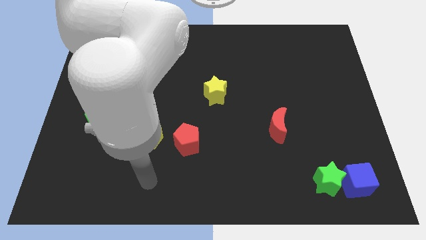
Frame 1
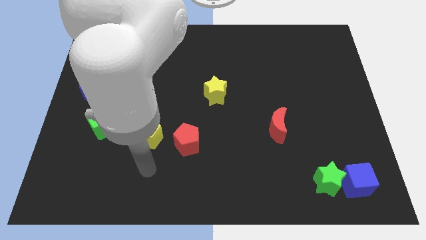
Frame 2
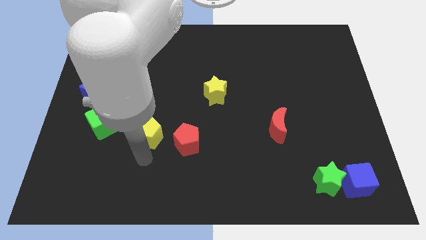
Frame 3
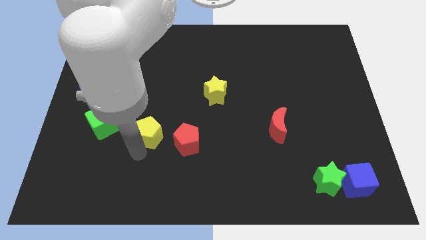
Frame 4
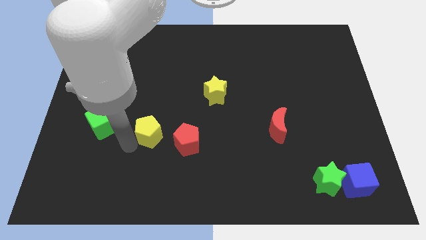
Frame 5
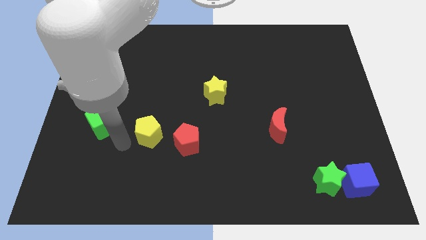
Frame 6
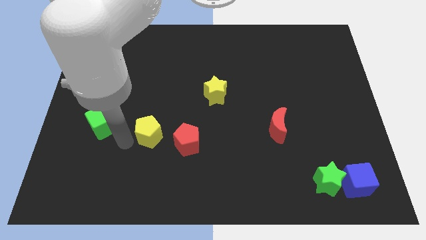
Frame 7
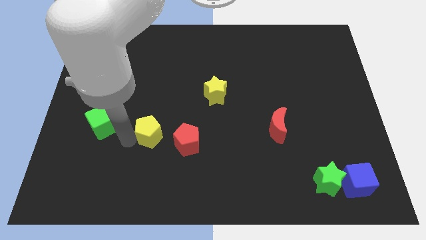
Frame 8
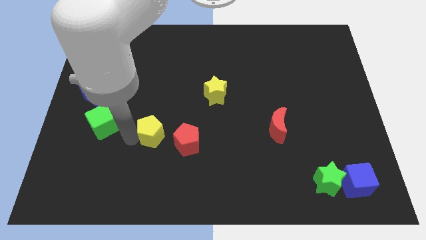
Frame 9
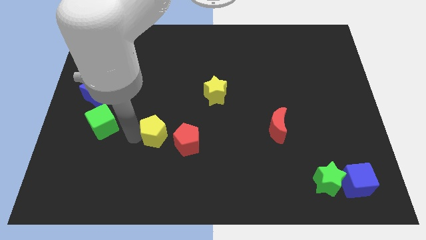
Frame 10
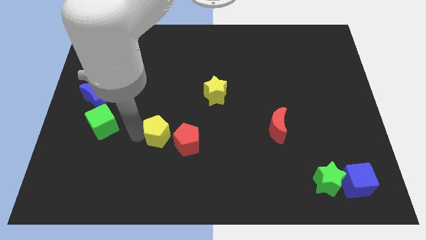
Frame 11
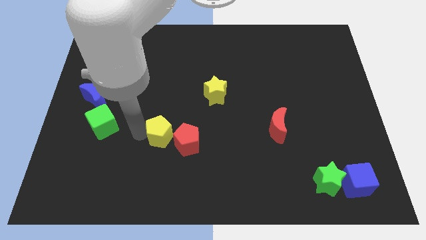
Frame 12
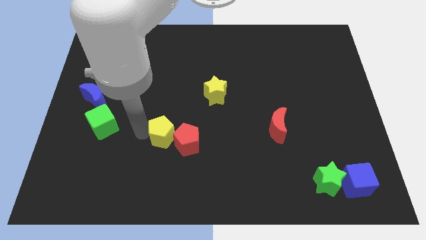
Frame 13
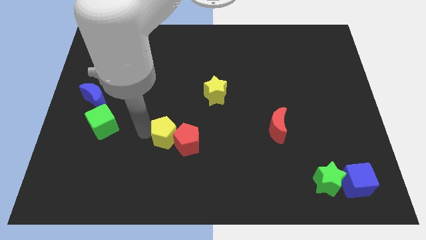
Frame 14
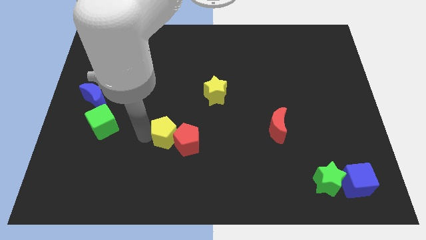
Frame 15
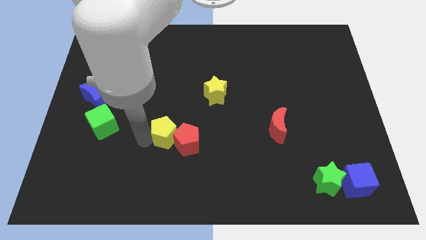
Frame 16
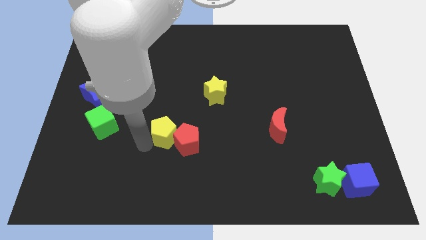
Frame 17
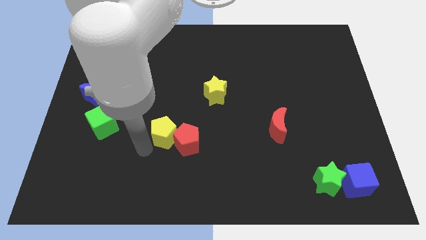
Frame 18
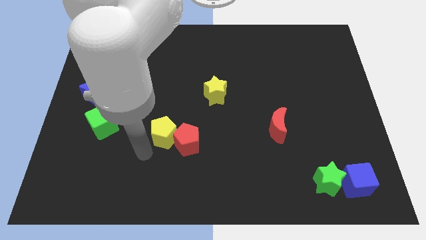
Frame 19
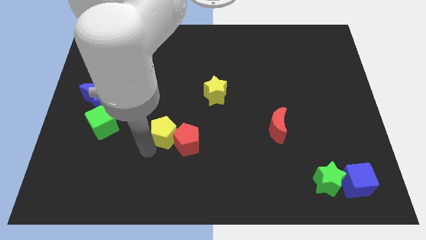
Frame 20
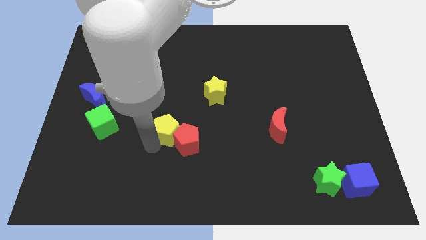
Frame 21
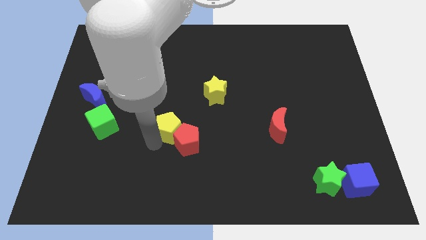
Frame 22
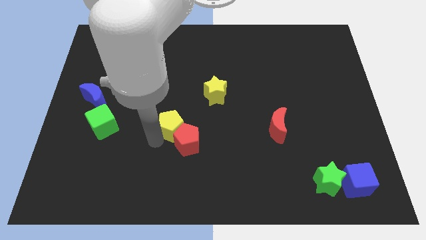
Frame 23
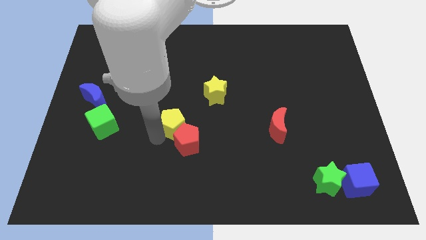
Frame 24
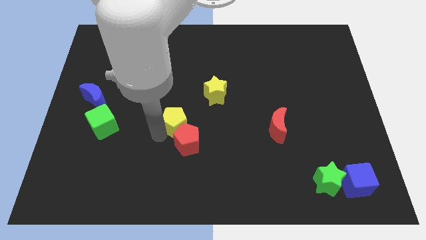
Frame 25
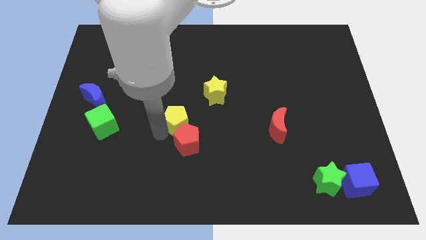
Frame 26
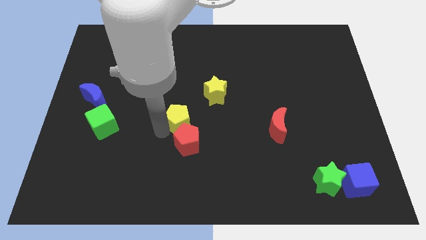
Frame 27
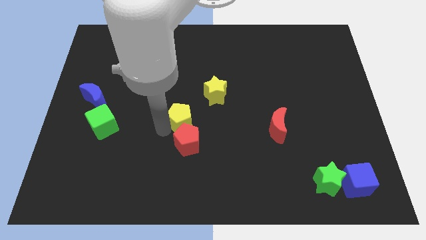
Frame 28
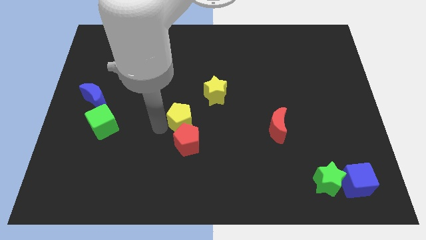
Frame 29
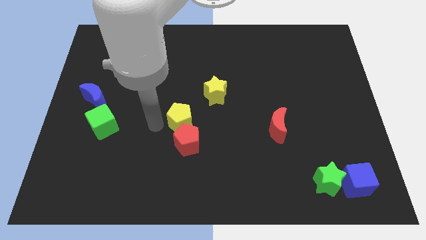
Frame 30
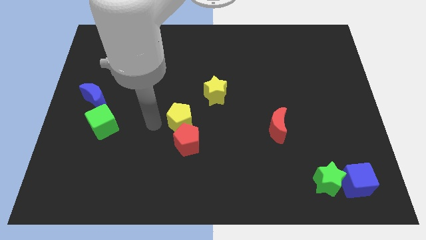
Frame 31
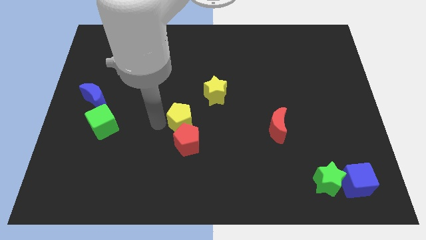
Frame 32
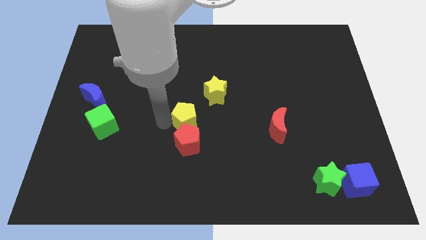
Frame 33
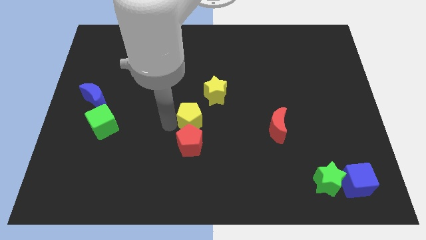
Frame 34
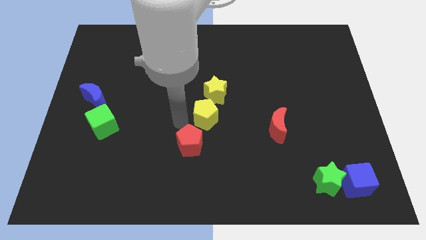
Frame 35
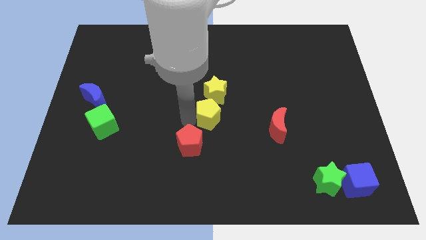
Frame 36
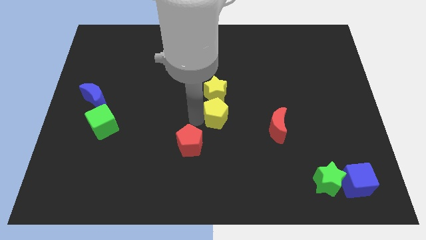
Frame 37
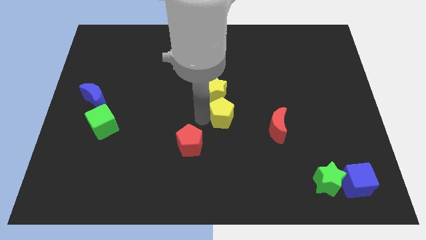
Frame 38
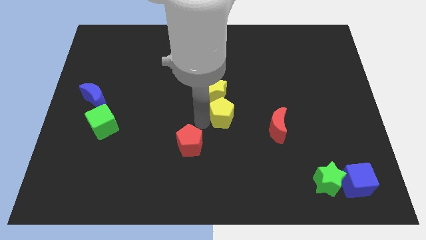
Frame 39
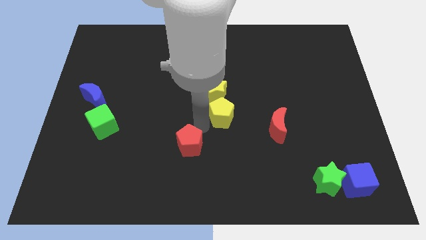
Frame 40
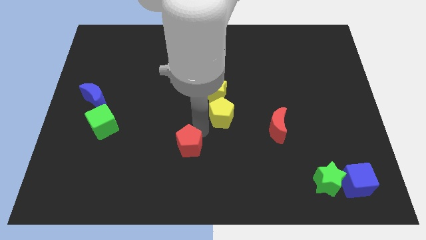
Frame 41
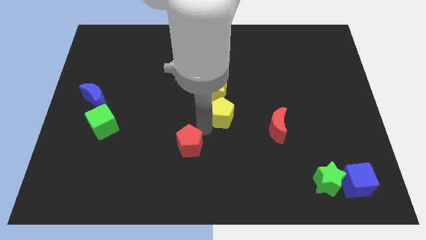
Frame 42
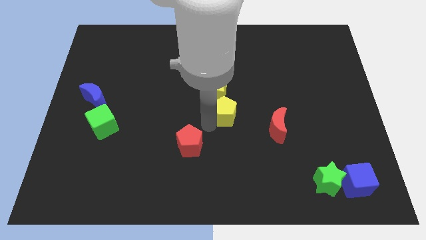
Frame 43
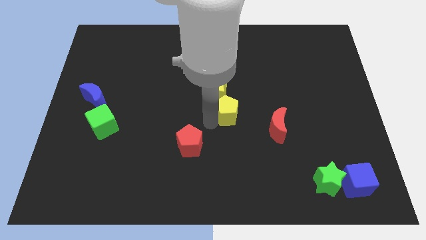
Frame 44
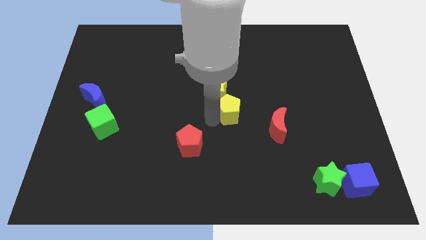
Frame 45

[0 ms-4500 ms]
push the yellow pentagon diagonally up and to the left of the red moon

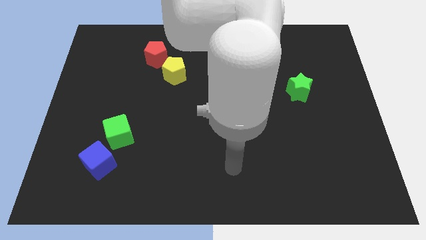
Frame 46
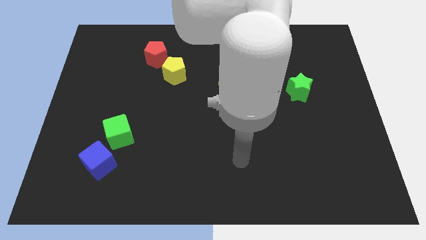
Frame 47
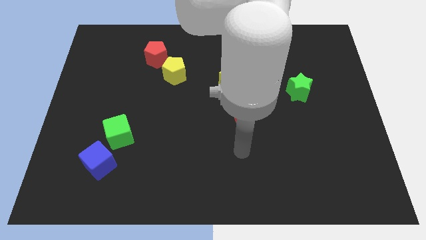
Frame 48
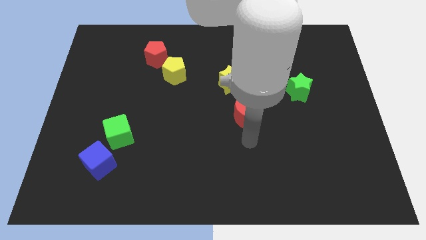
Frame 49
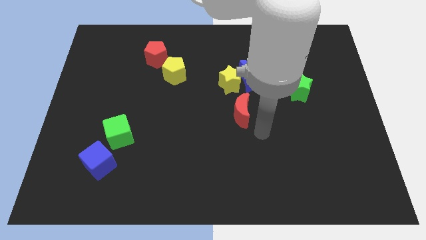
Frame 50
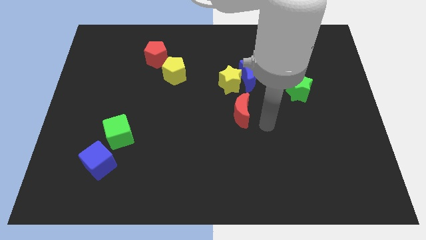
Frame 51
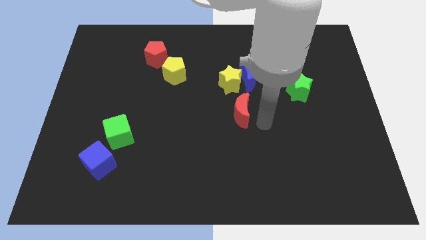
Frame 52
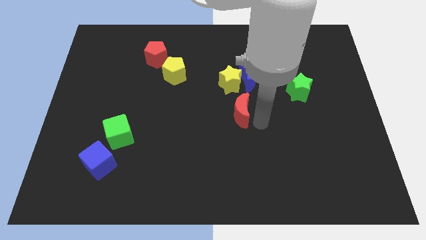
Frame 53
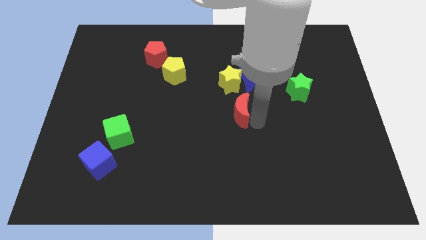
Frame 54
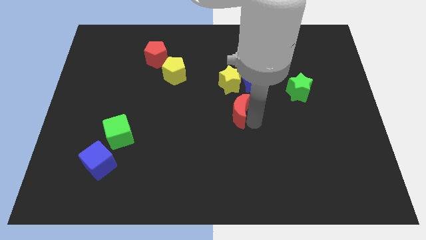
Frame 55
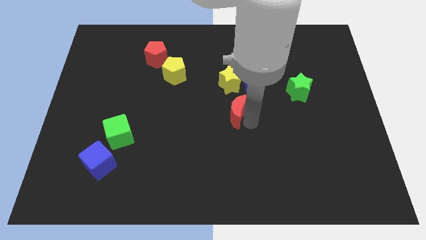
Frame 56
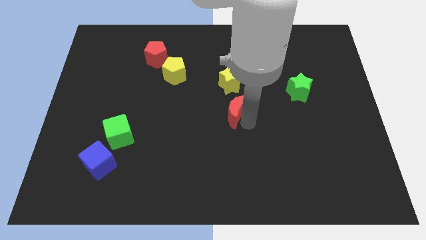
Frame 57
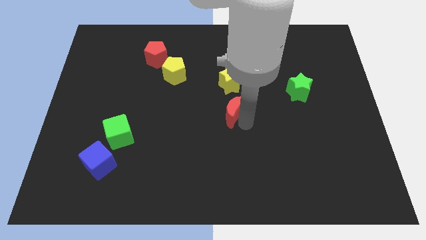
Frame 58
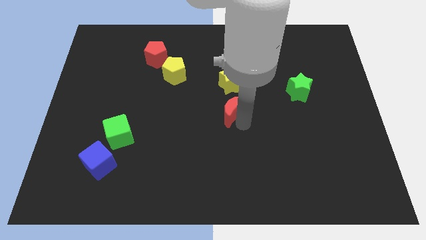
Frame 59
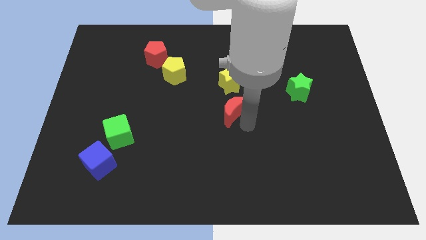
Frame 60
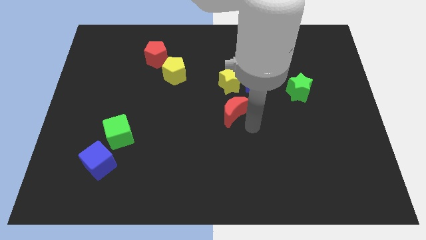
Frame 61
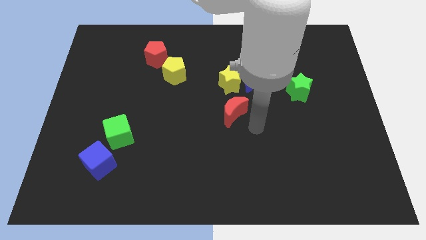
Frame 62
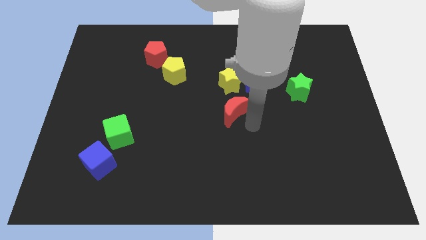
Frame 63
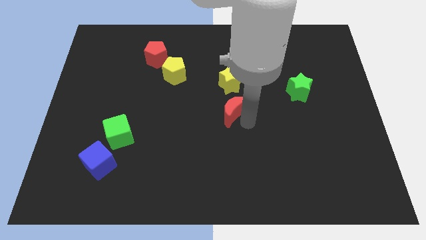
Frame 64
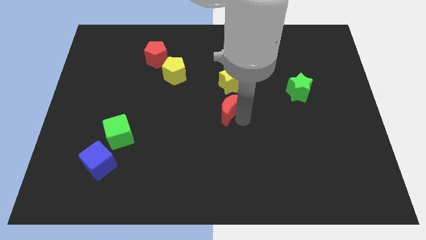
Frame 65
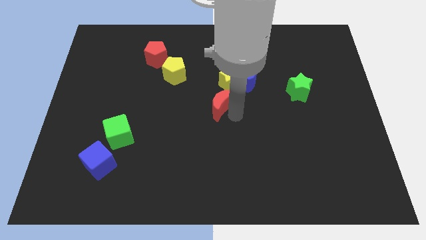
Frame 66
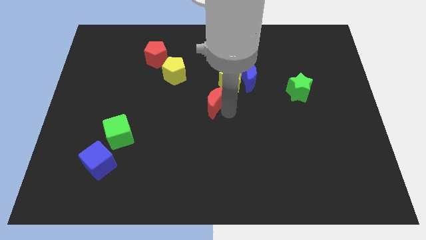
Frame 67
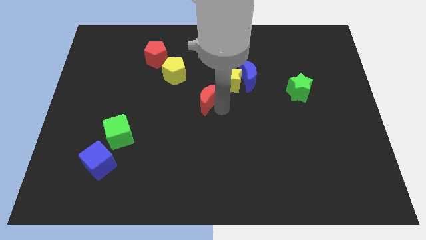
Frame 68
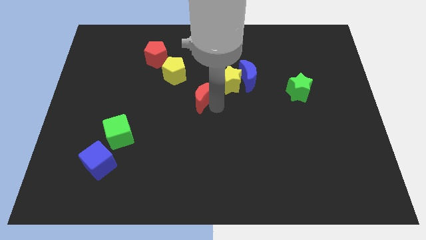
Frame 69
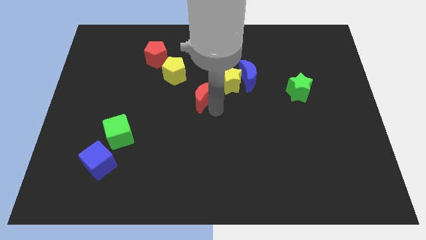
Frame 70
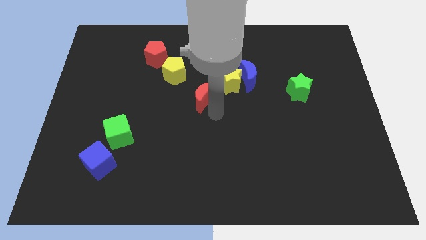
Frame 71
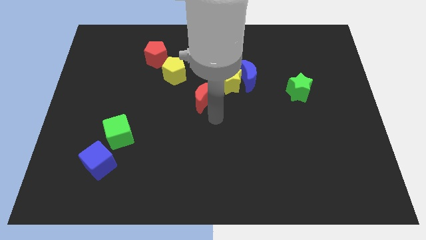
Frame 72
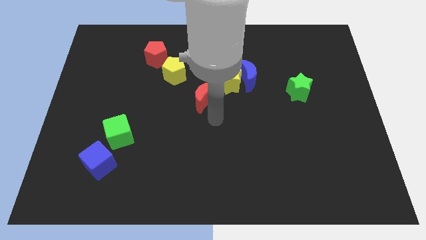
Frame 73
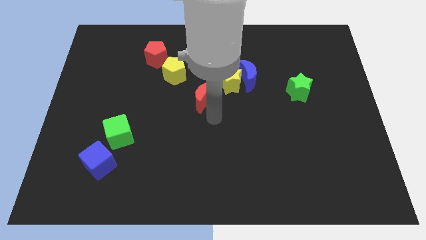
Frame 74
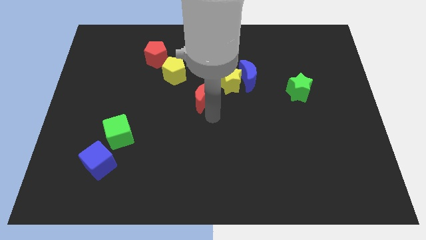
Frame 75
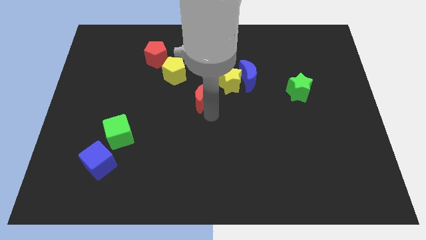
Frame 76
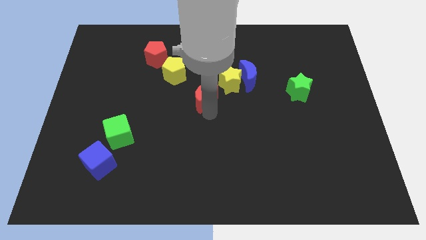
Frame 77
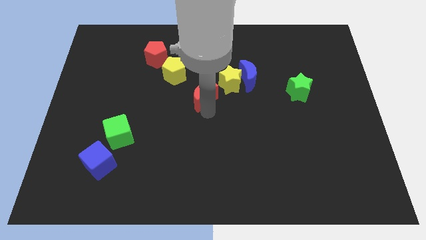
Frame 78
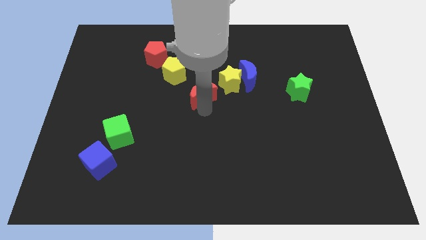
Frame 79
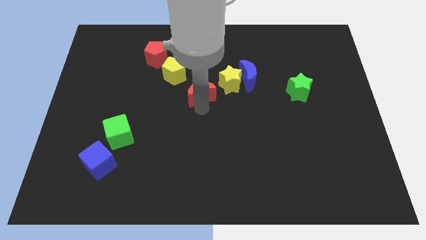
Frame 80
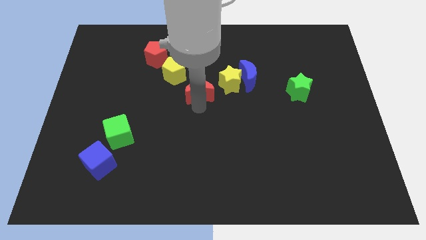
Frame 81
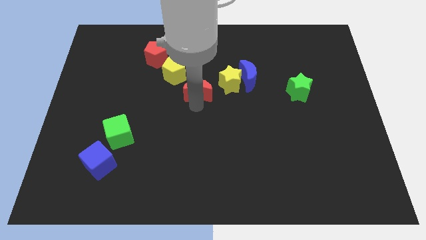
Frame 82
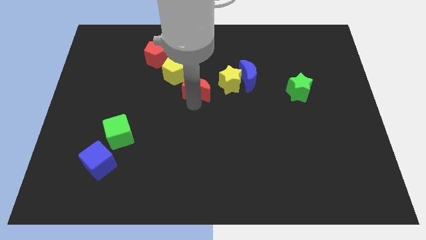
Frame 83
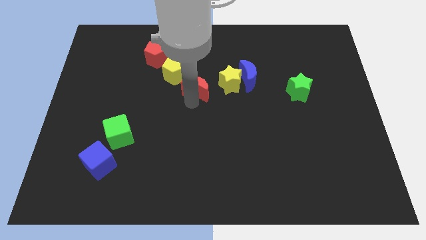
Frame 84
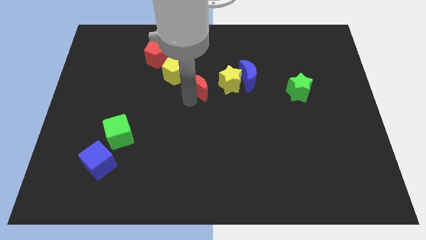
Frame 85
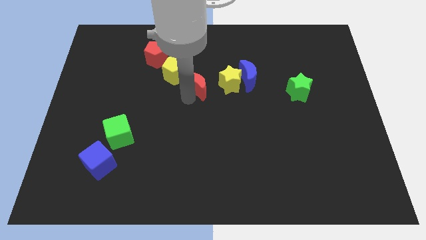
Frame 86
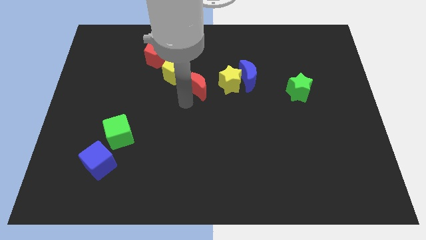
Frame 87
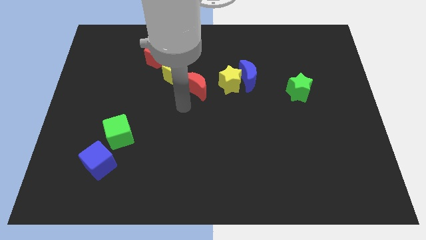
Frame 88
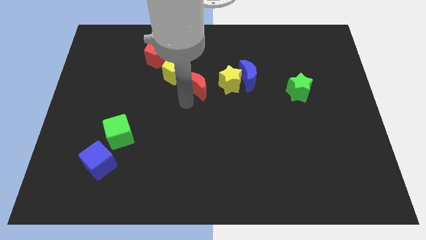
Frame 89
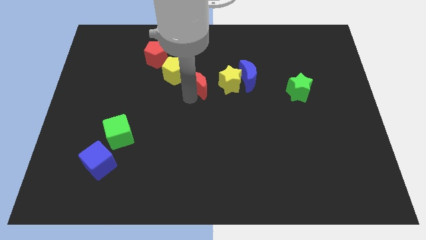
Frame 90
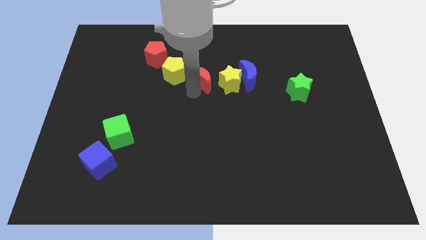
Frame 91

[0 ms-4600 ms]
push the red moon diagonally up and to the left of the yellow star
